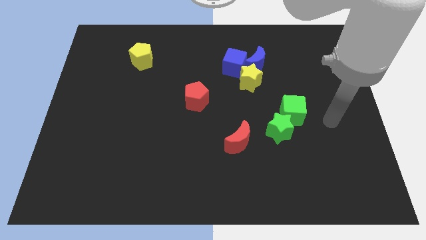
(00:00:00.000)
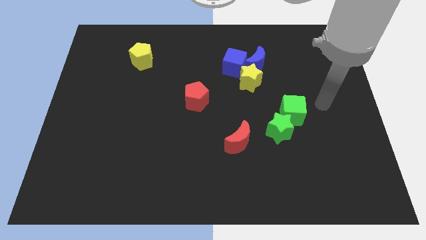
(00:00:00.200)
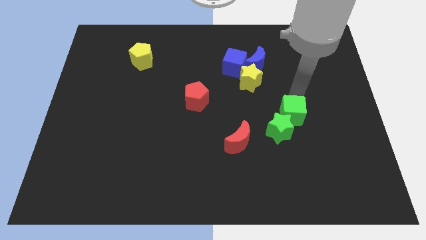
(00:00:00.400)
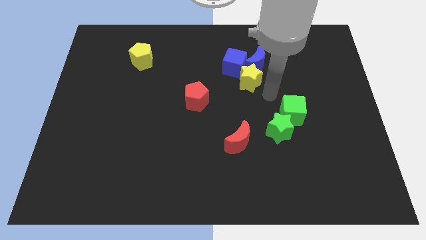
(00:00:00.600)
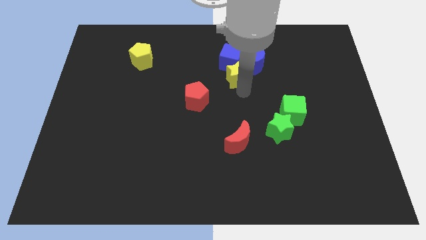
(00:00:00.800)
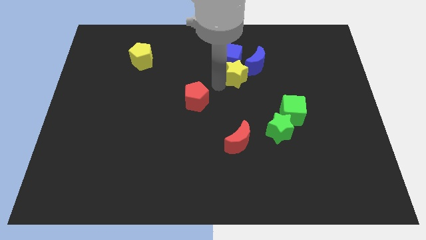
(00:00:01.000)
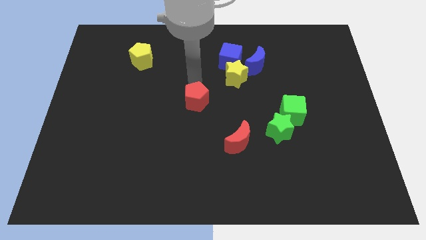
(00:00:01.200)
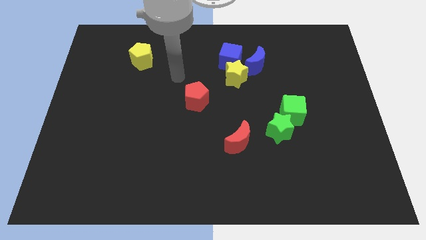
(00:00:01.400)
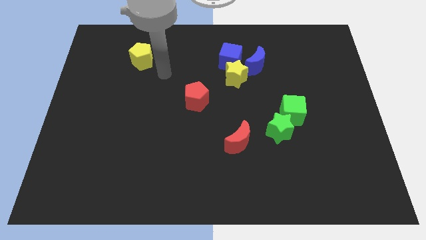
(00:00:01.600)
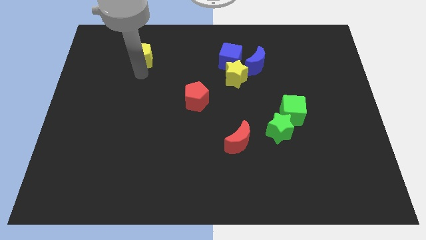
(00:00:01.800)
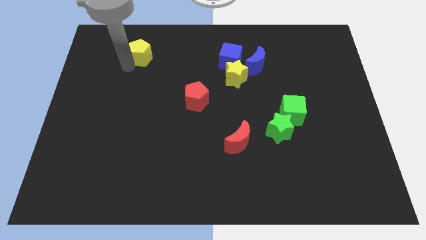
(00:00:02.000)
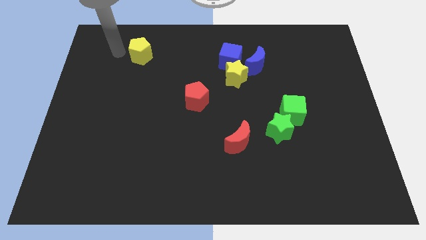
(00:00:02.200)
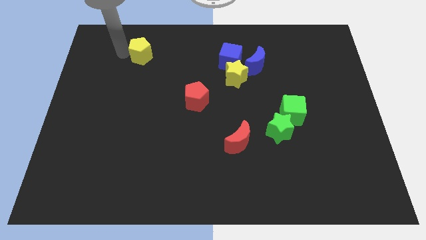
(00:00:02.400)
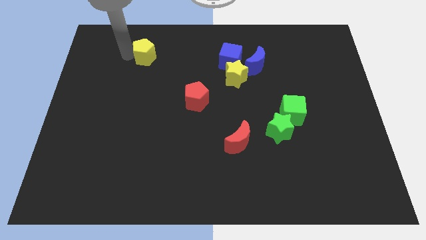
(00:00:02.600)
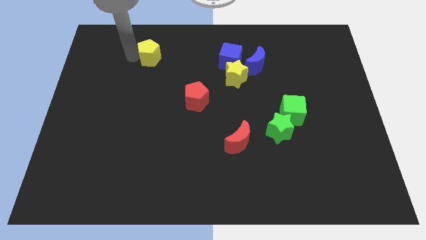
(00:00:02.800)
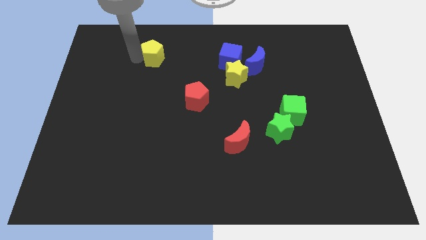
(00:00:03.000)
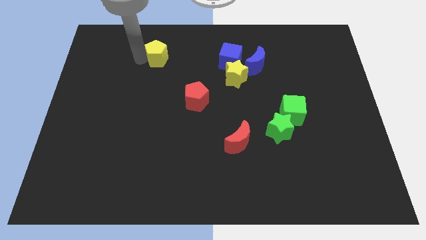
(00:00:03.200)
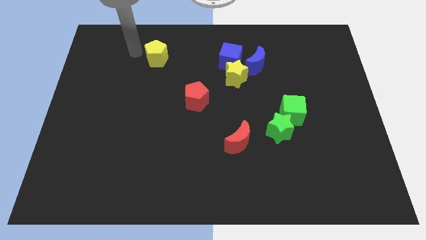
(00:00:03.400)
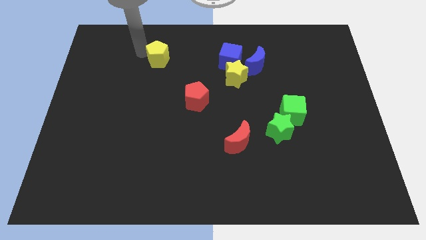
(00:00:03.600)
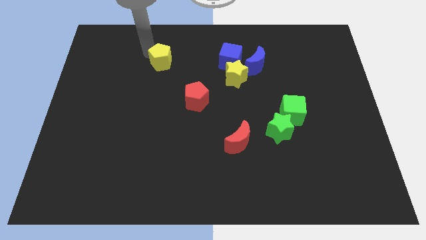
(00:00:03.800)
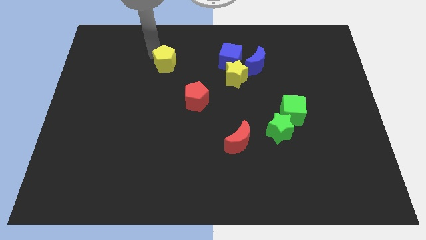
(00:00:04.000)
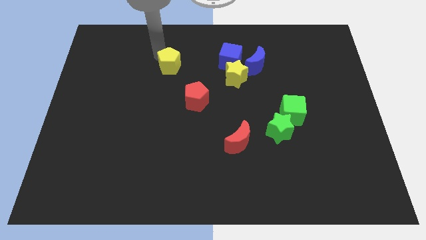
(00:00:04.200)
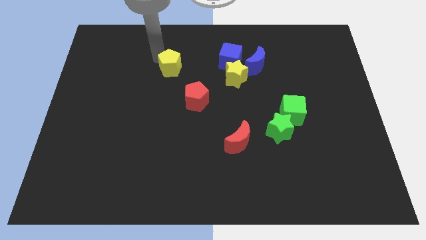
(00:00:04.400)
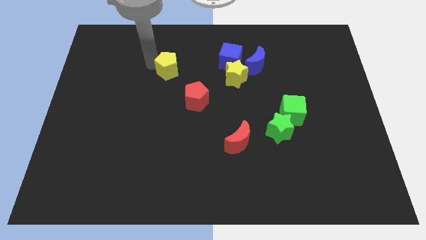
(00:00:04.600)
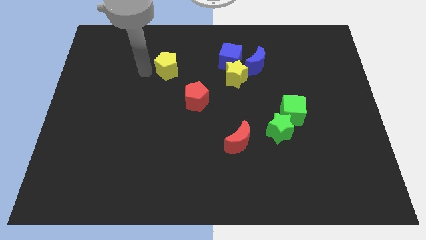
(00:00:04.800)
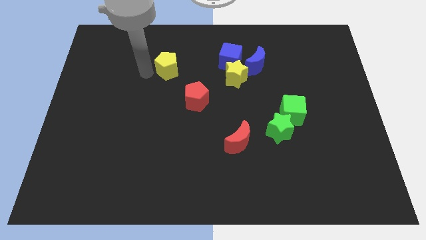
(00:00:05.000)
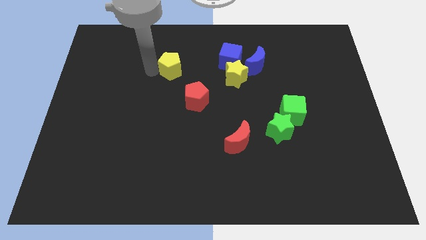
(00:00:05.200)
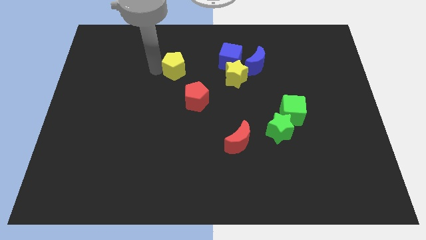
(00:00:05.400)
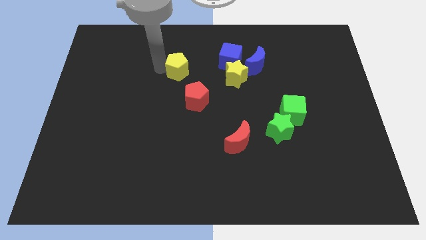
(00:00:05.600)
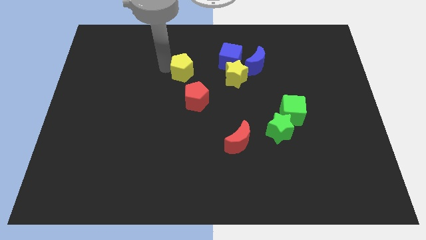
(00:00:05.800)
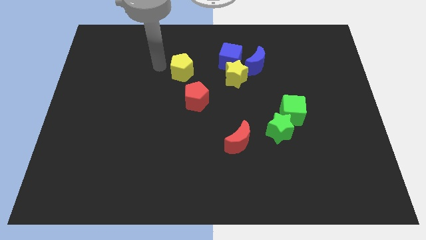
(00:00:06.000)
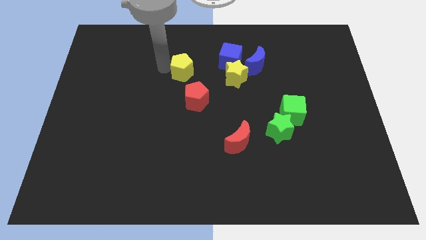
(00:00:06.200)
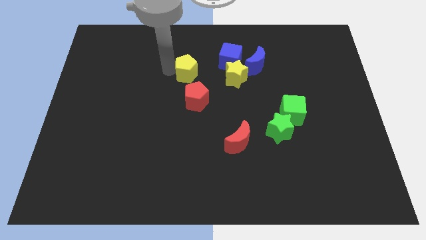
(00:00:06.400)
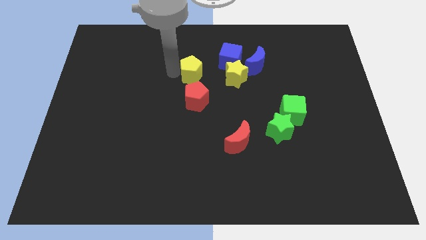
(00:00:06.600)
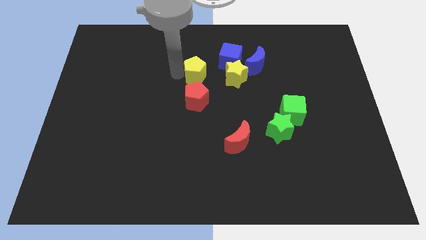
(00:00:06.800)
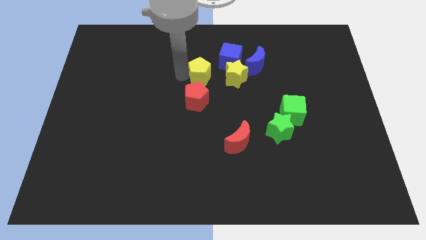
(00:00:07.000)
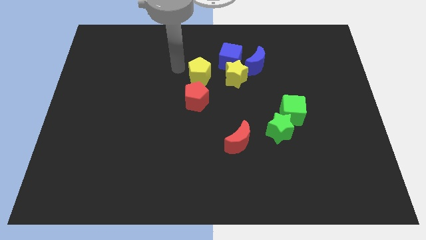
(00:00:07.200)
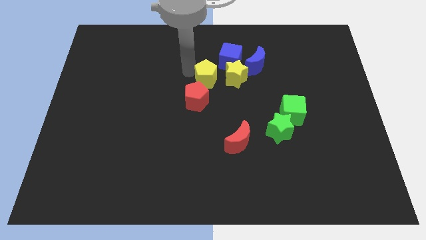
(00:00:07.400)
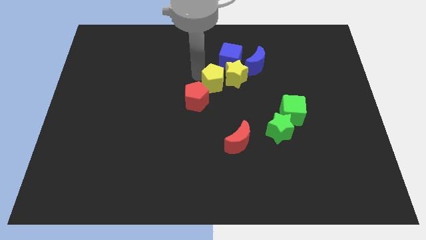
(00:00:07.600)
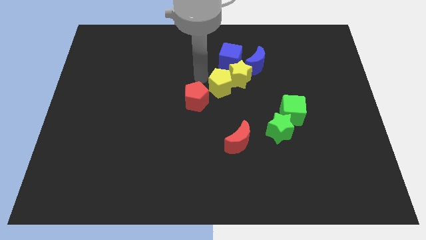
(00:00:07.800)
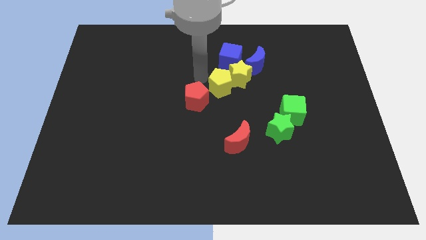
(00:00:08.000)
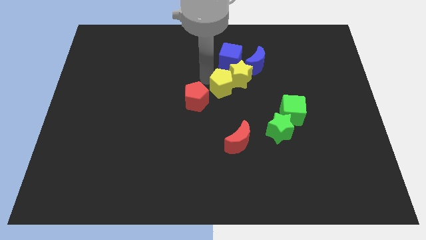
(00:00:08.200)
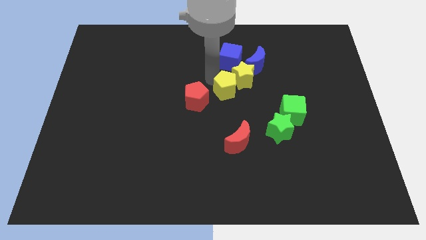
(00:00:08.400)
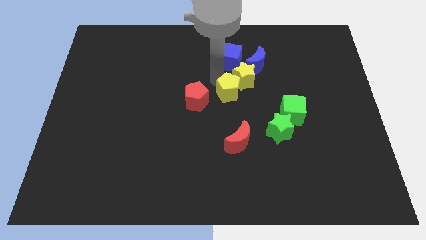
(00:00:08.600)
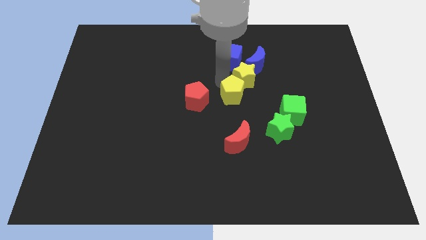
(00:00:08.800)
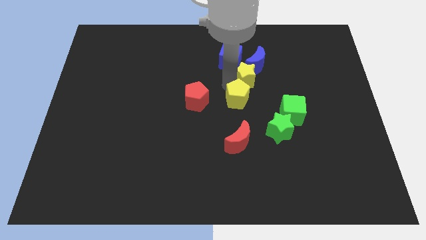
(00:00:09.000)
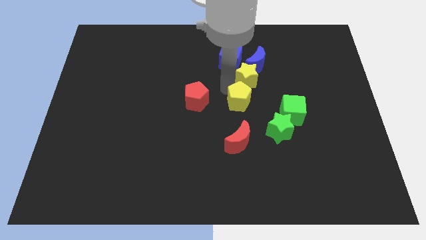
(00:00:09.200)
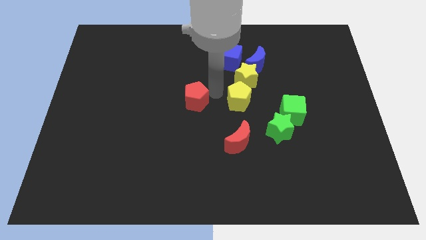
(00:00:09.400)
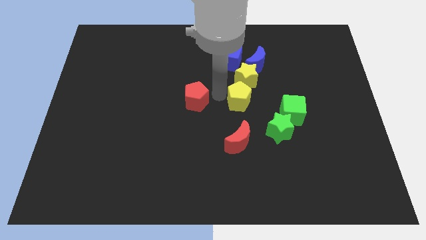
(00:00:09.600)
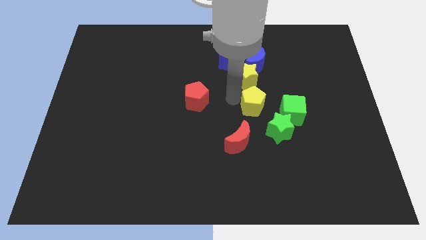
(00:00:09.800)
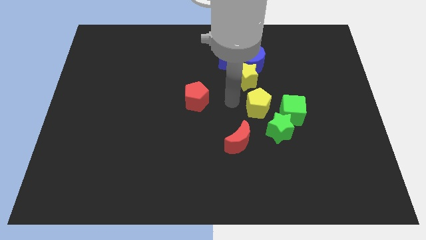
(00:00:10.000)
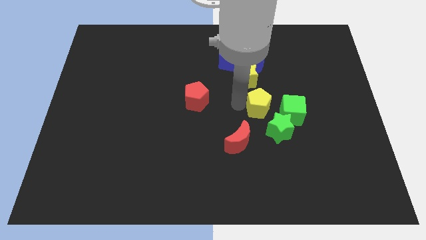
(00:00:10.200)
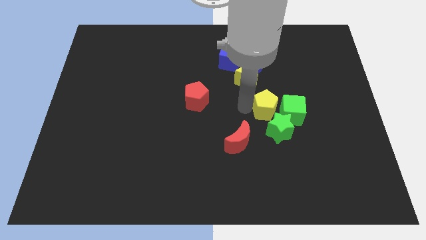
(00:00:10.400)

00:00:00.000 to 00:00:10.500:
move the yellow pentagon towards the green cube

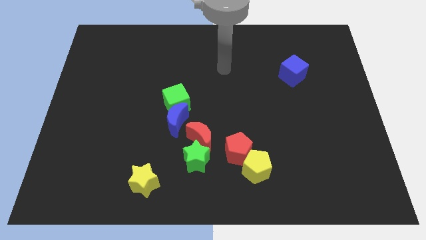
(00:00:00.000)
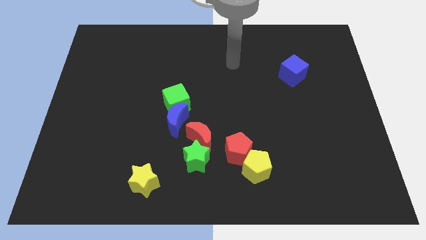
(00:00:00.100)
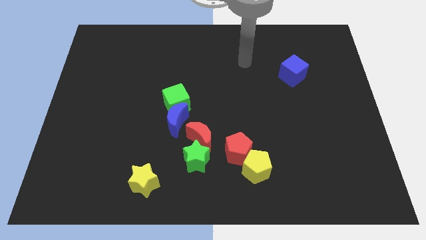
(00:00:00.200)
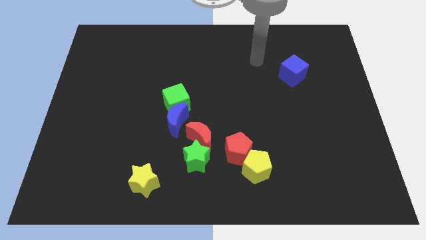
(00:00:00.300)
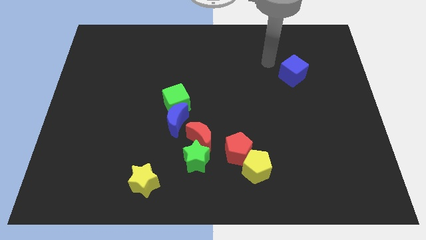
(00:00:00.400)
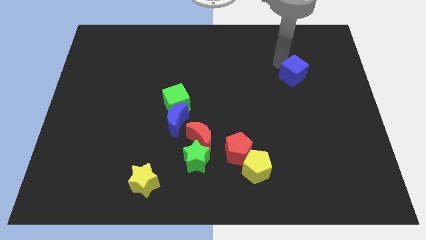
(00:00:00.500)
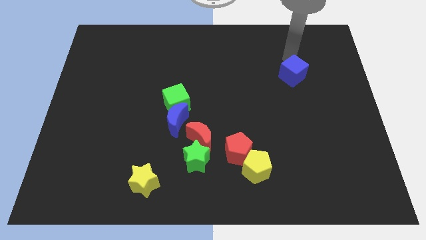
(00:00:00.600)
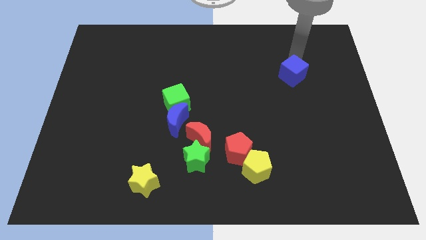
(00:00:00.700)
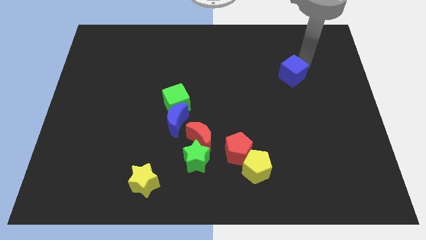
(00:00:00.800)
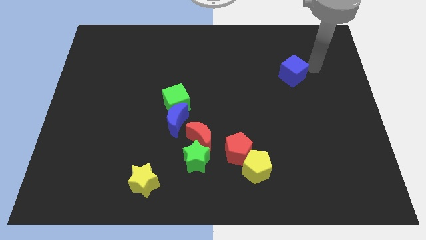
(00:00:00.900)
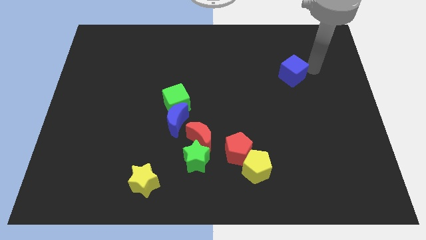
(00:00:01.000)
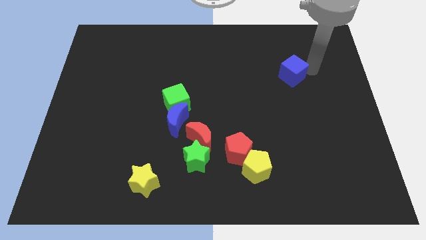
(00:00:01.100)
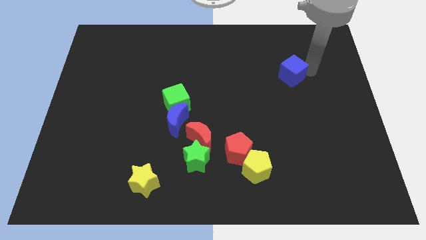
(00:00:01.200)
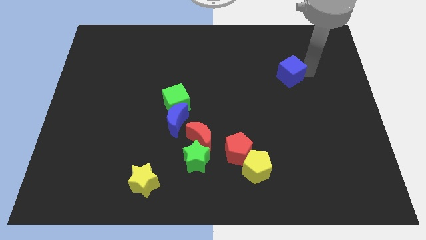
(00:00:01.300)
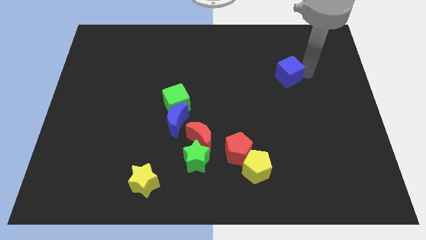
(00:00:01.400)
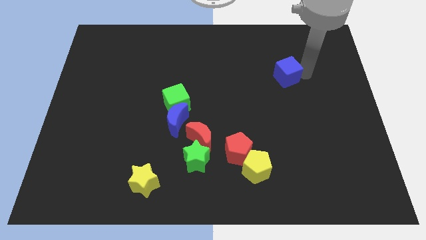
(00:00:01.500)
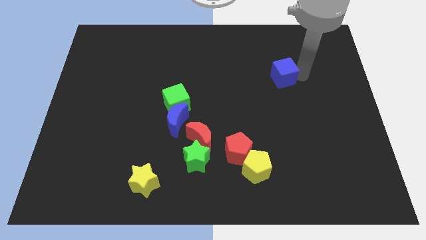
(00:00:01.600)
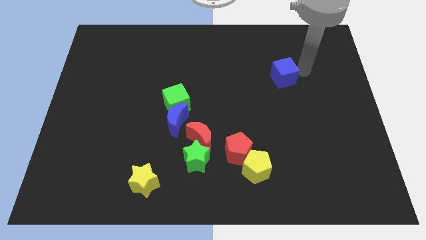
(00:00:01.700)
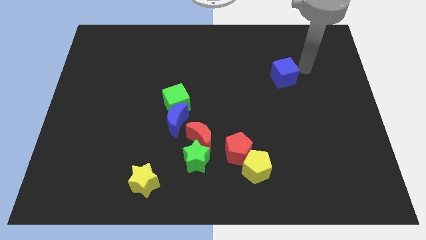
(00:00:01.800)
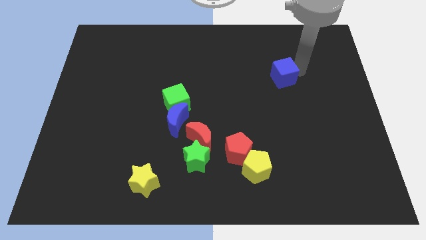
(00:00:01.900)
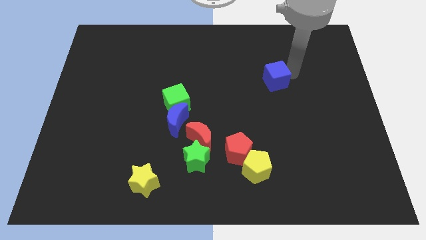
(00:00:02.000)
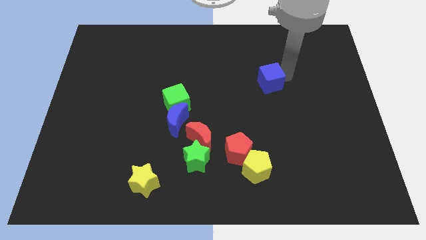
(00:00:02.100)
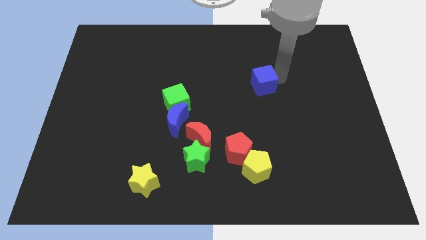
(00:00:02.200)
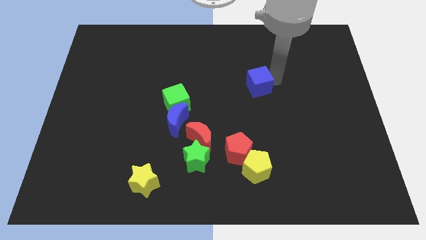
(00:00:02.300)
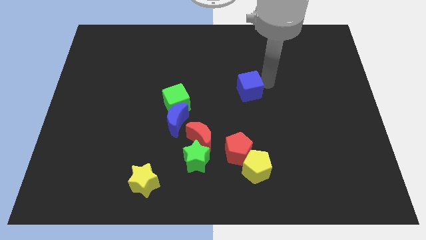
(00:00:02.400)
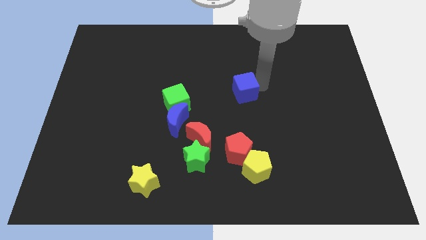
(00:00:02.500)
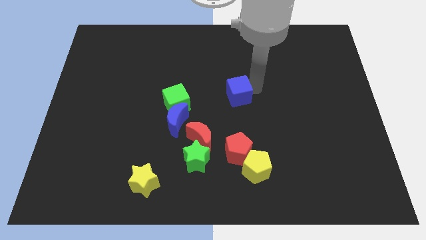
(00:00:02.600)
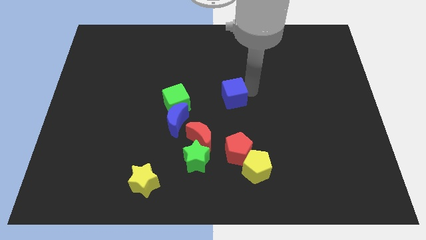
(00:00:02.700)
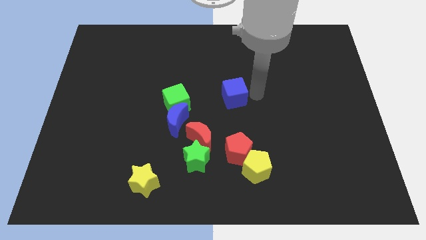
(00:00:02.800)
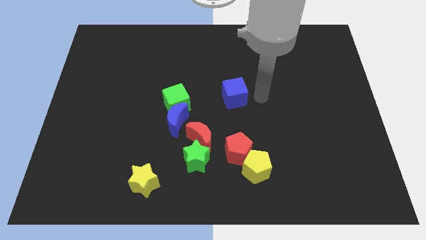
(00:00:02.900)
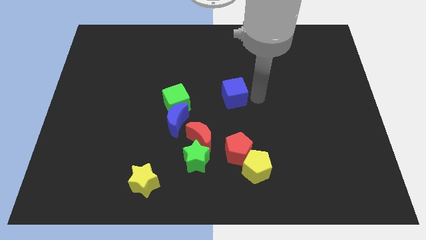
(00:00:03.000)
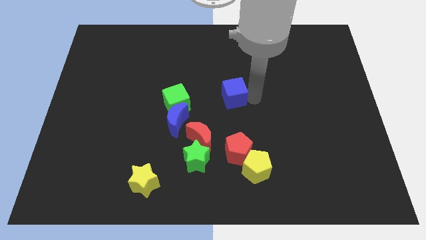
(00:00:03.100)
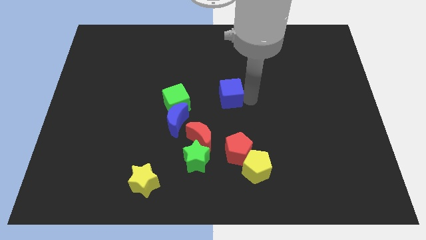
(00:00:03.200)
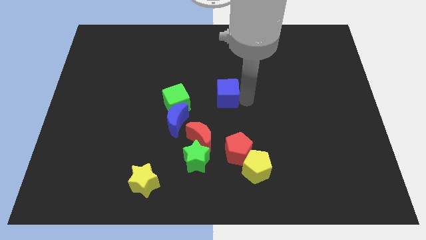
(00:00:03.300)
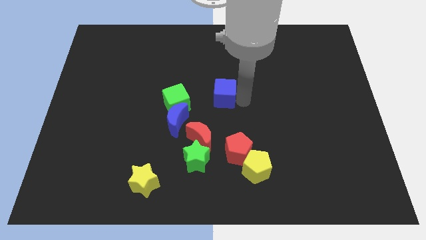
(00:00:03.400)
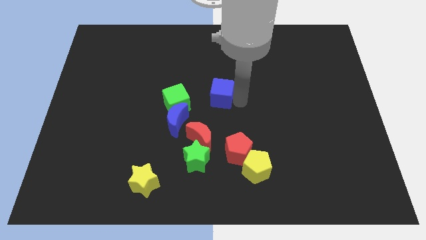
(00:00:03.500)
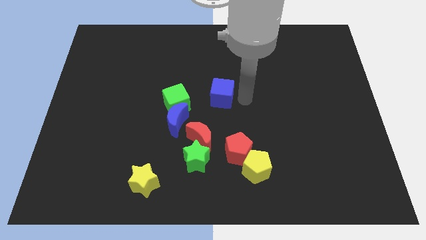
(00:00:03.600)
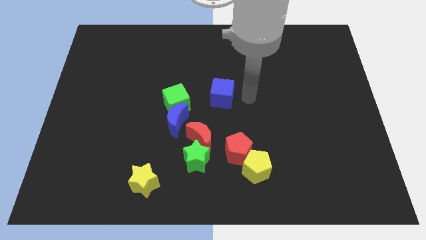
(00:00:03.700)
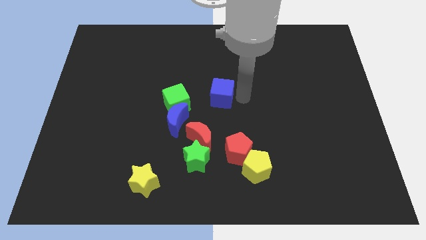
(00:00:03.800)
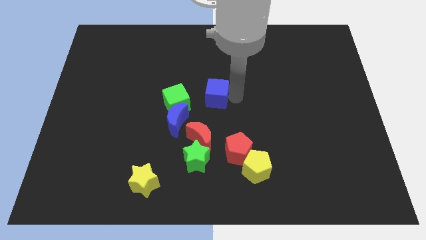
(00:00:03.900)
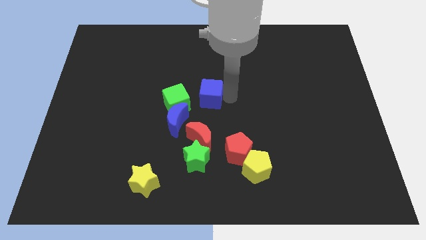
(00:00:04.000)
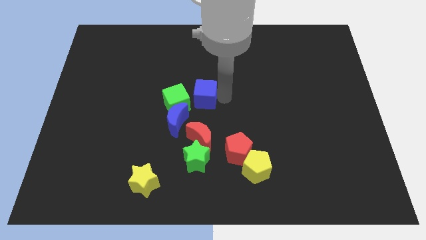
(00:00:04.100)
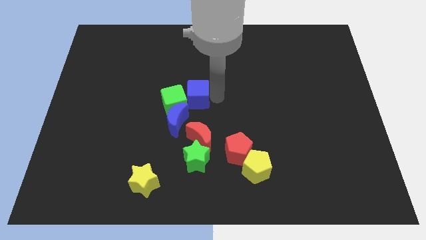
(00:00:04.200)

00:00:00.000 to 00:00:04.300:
slide the blue cube next to the green cube
